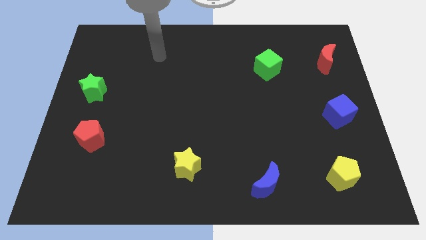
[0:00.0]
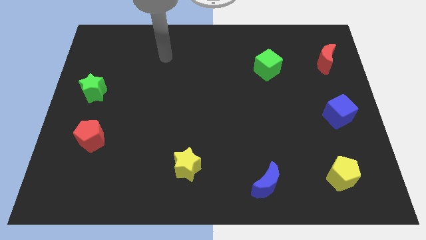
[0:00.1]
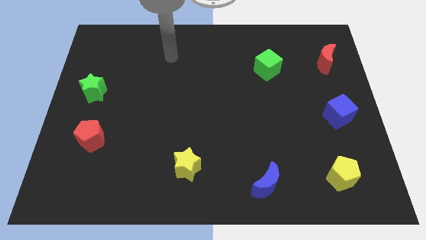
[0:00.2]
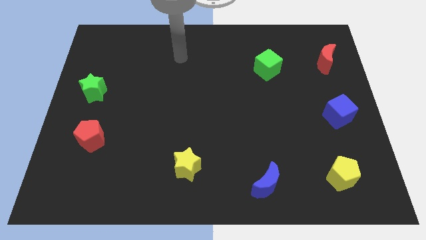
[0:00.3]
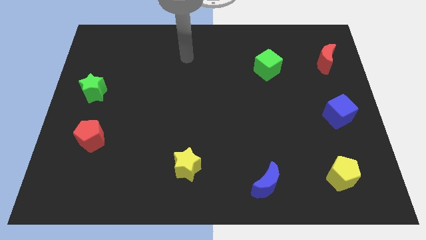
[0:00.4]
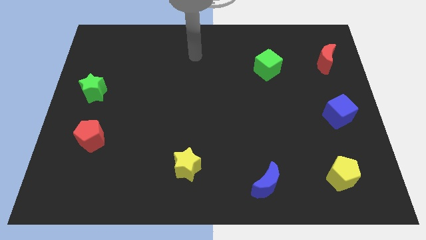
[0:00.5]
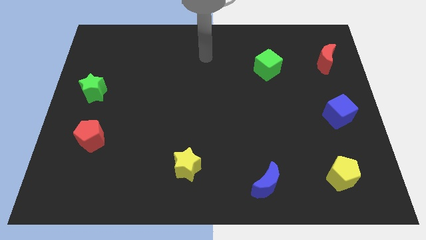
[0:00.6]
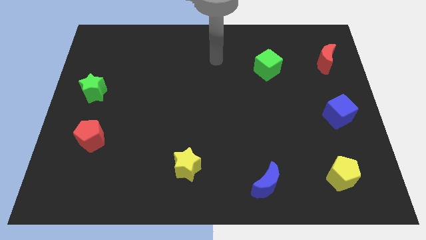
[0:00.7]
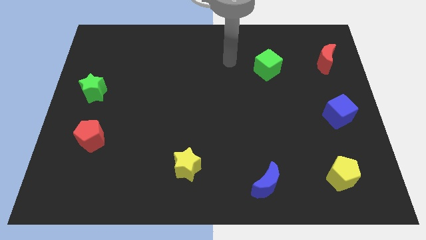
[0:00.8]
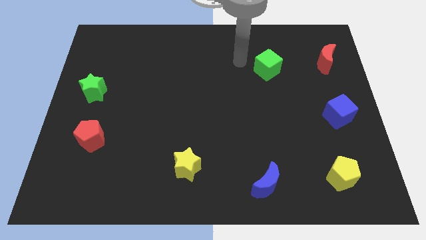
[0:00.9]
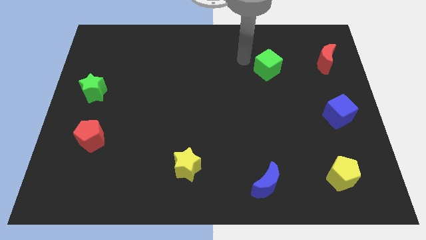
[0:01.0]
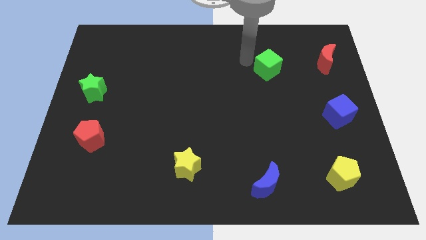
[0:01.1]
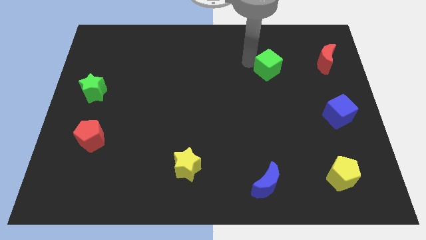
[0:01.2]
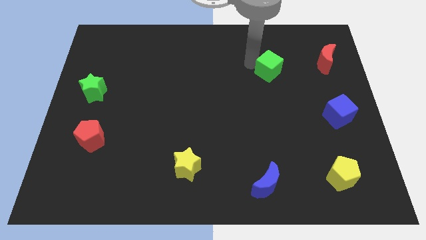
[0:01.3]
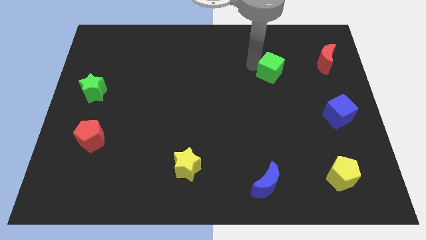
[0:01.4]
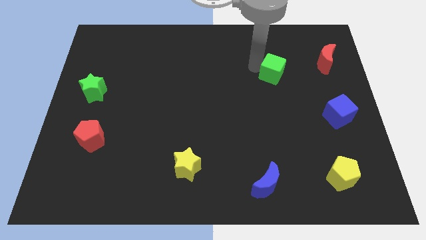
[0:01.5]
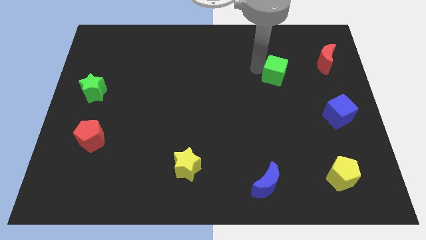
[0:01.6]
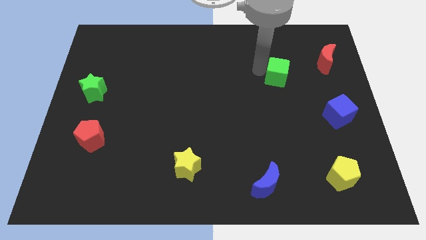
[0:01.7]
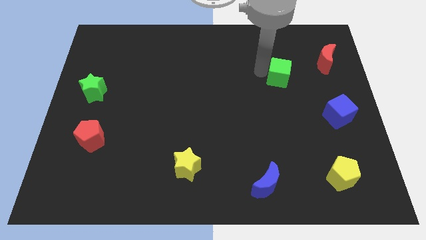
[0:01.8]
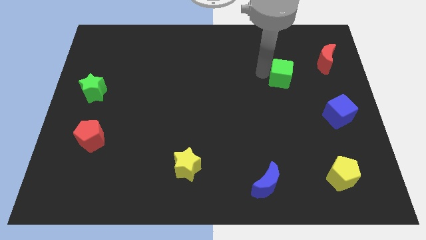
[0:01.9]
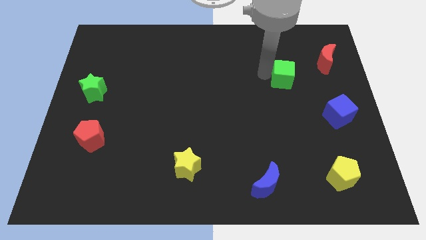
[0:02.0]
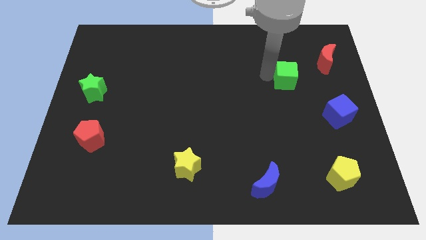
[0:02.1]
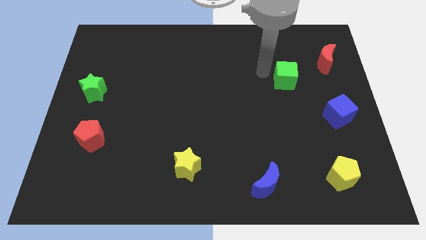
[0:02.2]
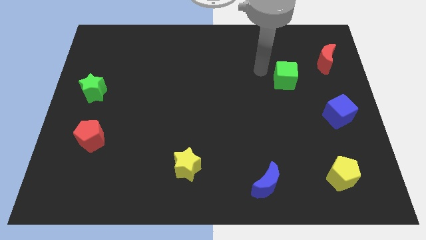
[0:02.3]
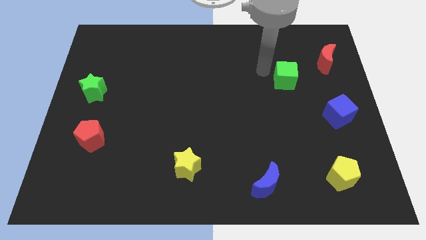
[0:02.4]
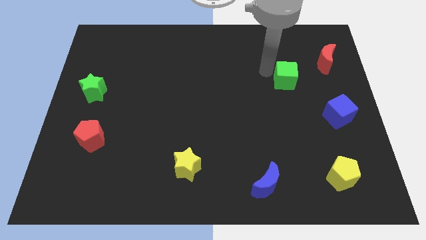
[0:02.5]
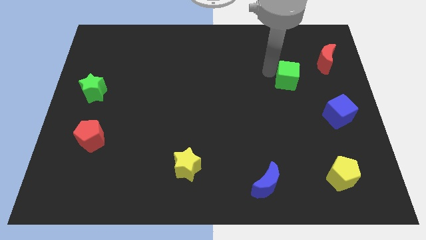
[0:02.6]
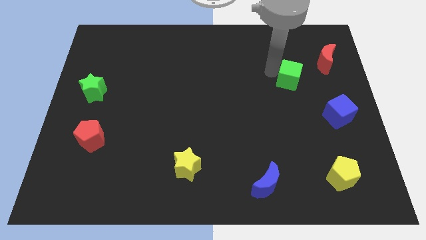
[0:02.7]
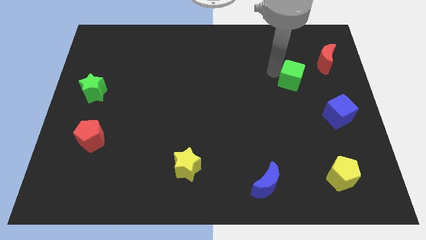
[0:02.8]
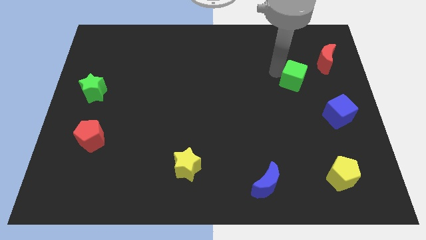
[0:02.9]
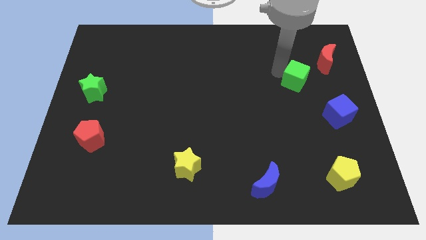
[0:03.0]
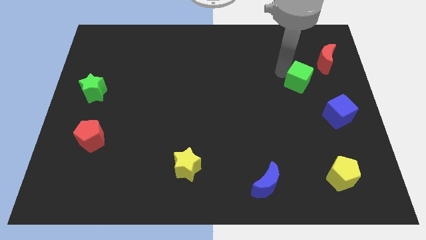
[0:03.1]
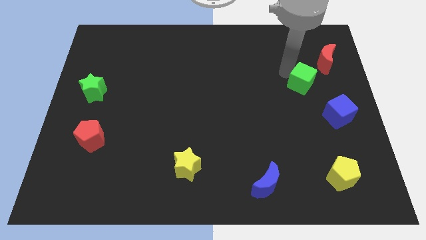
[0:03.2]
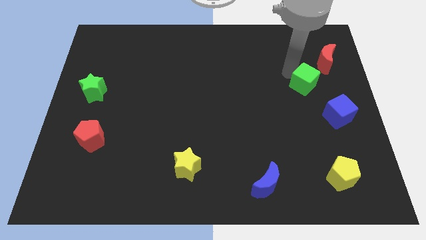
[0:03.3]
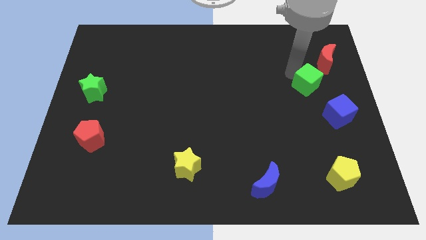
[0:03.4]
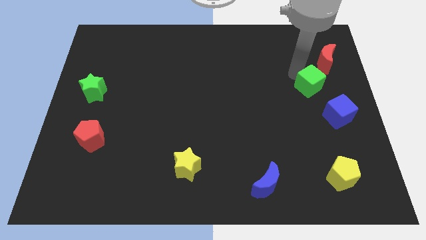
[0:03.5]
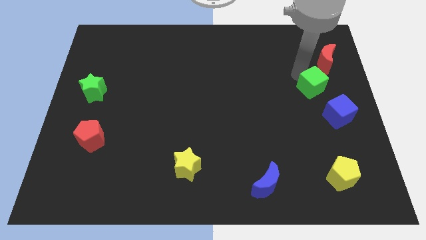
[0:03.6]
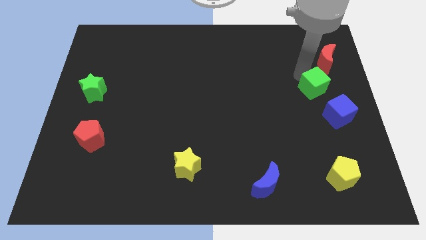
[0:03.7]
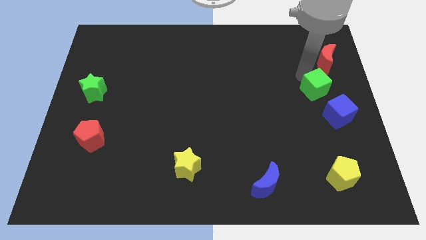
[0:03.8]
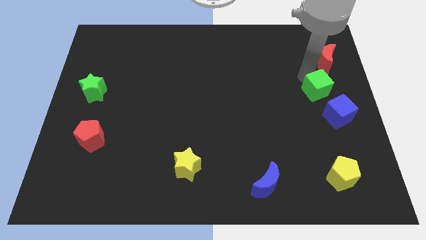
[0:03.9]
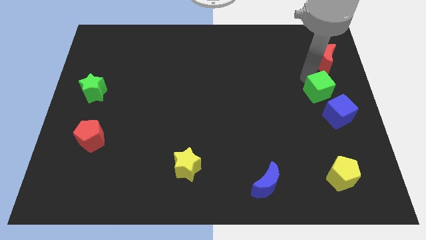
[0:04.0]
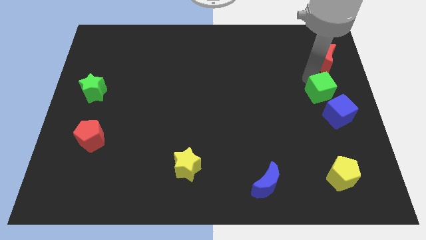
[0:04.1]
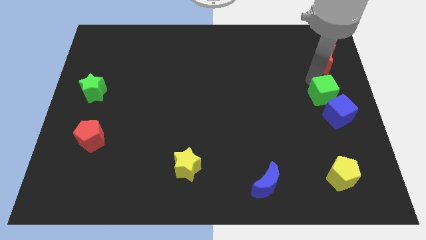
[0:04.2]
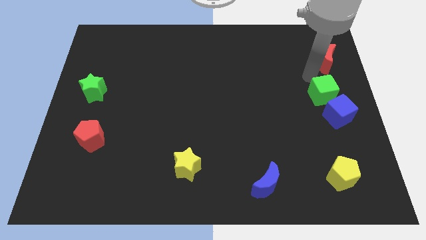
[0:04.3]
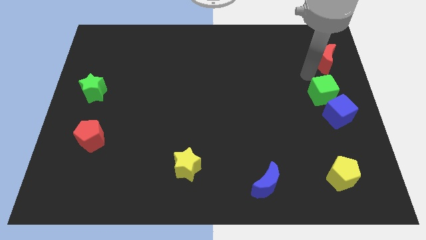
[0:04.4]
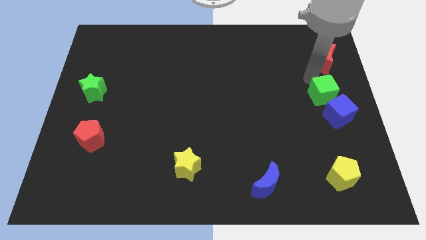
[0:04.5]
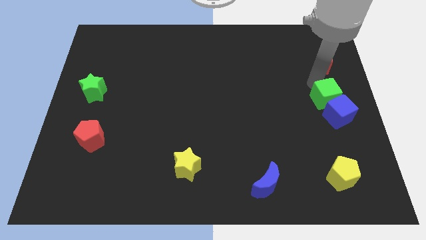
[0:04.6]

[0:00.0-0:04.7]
move the green cube to the blue cube

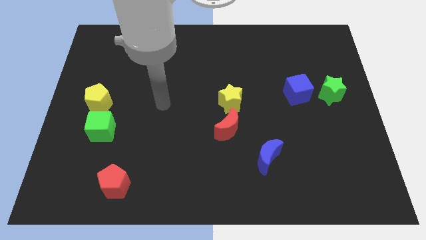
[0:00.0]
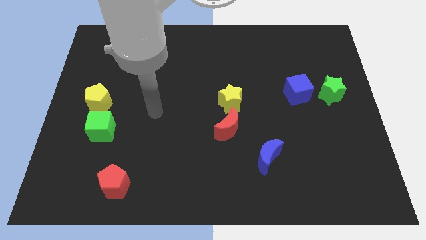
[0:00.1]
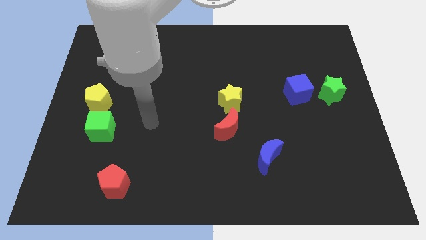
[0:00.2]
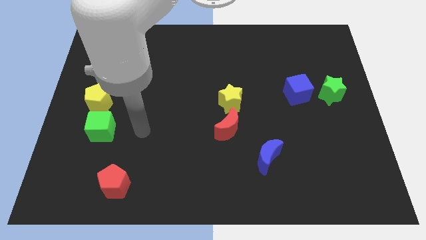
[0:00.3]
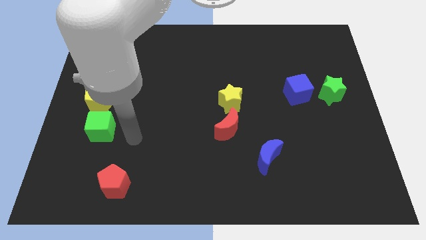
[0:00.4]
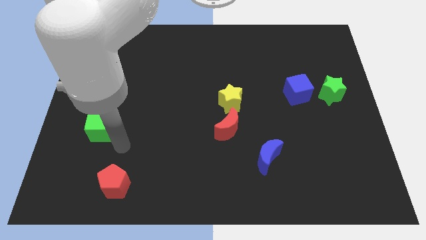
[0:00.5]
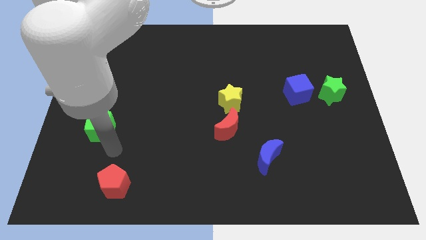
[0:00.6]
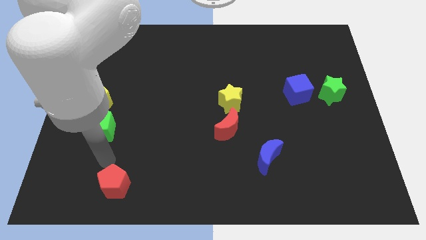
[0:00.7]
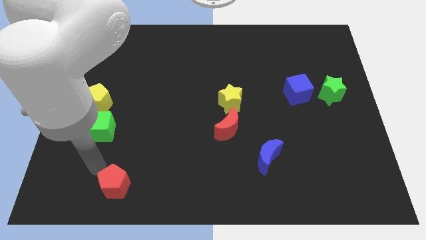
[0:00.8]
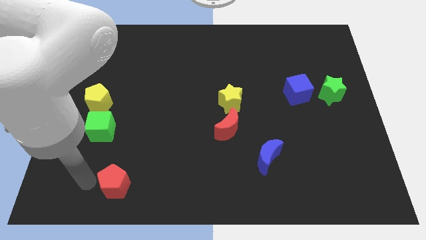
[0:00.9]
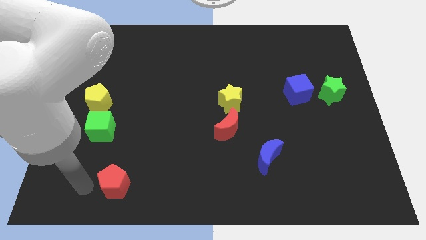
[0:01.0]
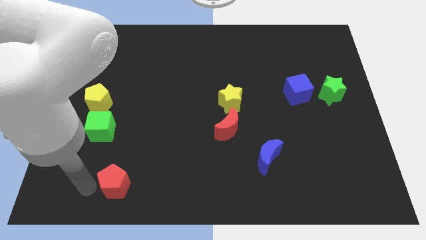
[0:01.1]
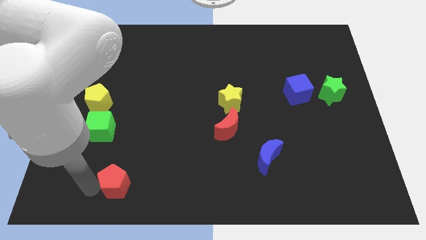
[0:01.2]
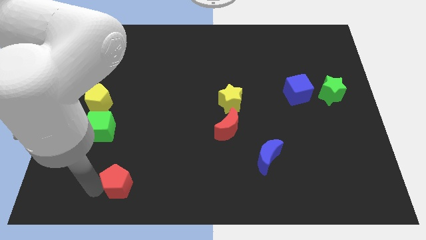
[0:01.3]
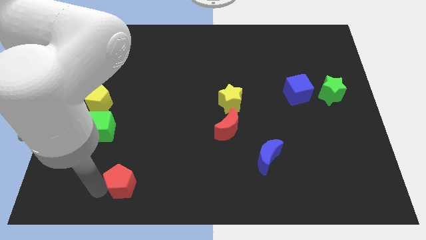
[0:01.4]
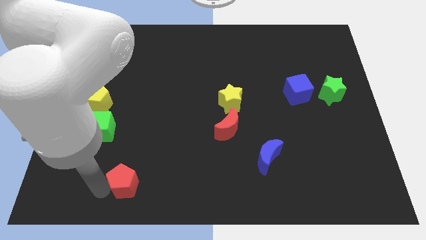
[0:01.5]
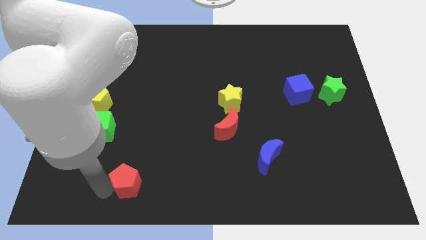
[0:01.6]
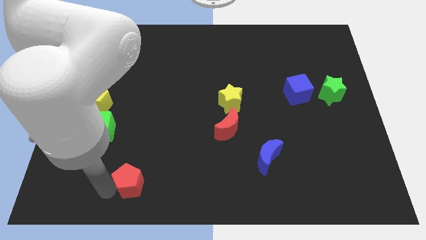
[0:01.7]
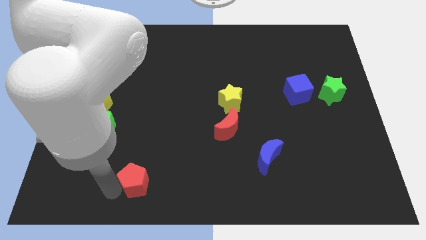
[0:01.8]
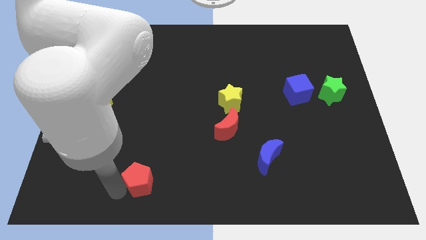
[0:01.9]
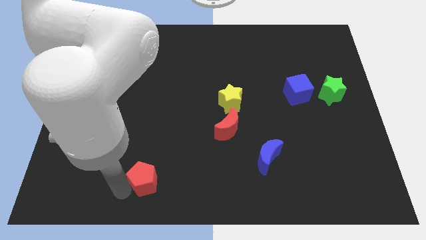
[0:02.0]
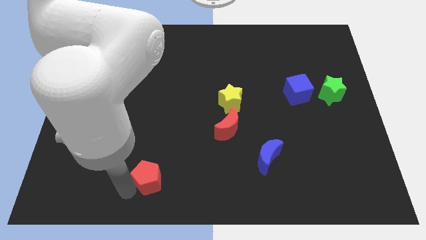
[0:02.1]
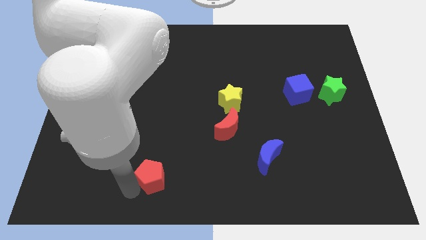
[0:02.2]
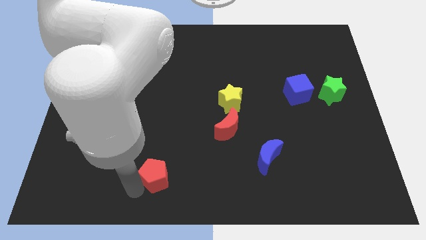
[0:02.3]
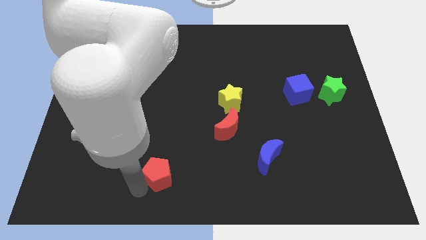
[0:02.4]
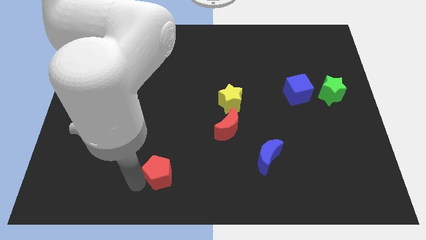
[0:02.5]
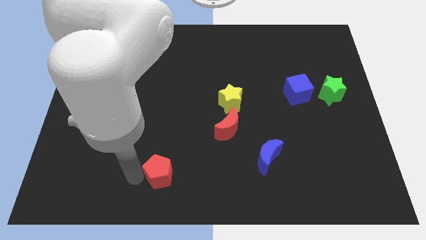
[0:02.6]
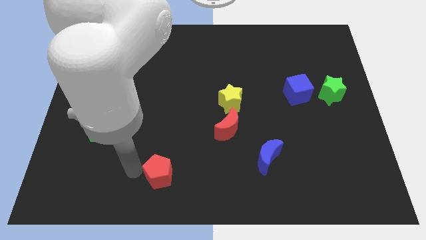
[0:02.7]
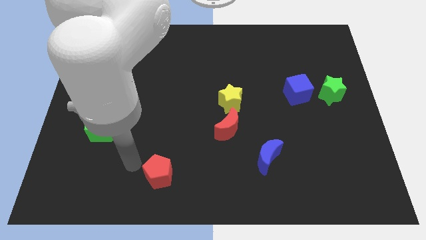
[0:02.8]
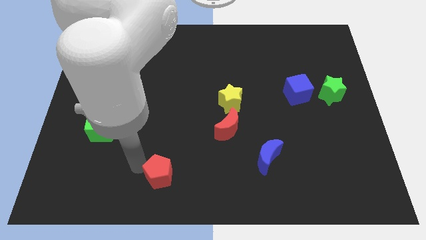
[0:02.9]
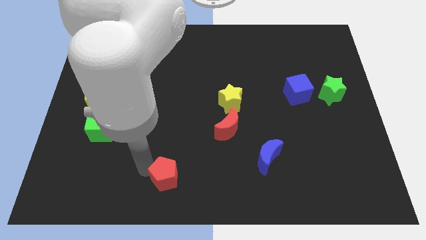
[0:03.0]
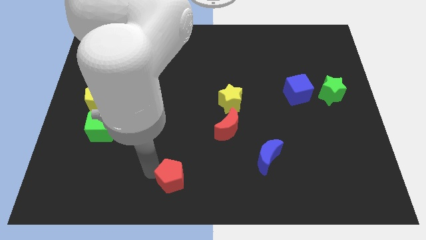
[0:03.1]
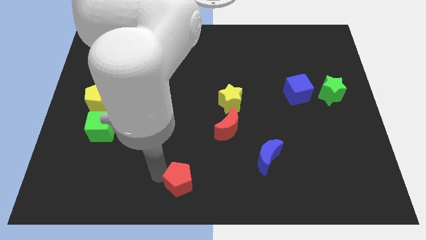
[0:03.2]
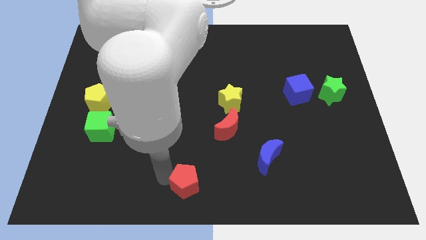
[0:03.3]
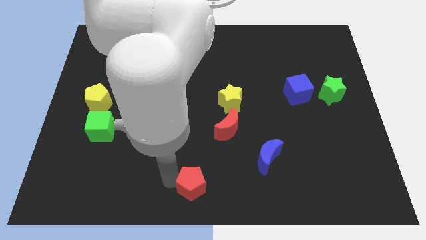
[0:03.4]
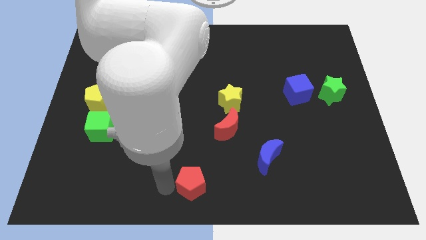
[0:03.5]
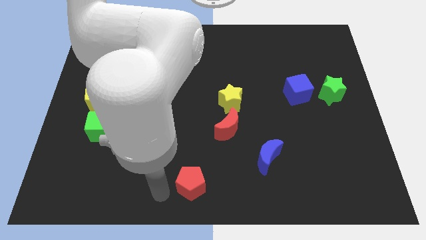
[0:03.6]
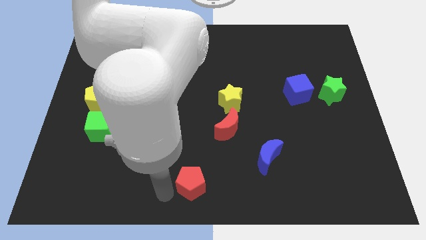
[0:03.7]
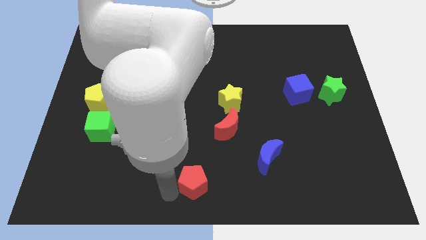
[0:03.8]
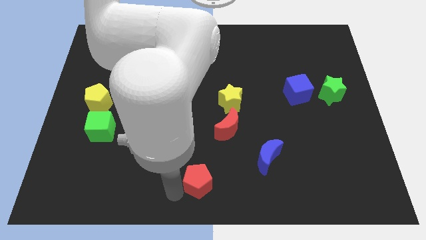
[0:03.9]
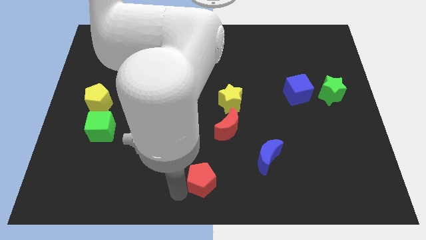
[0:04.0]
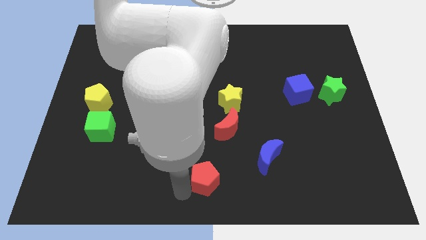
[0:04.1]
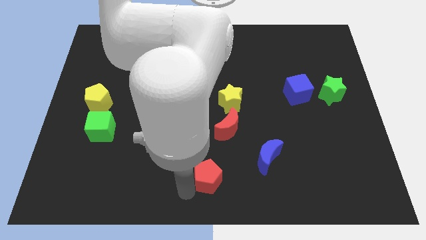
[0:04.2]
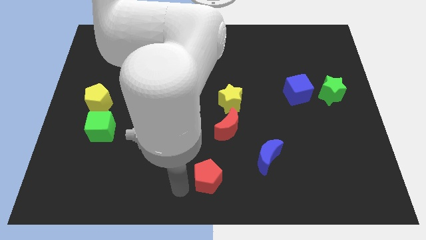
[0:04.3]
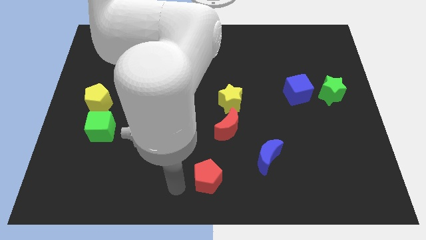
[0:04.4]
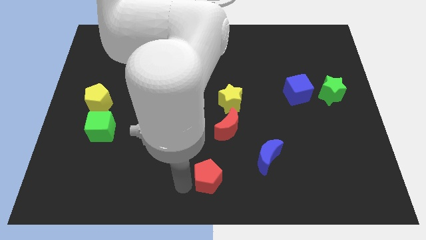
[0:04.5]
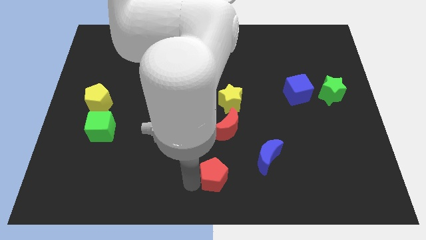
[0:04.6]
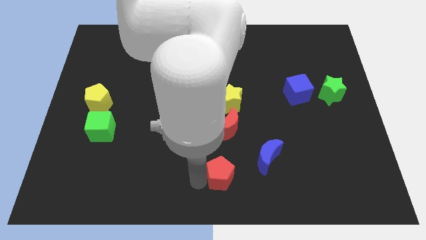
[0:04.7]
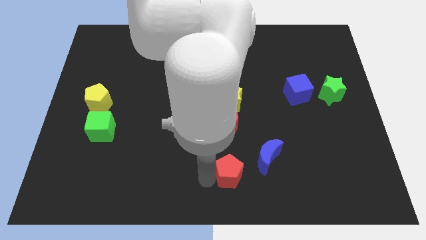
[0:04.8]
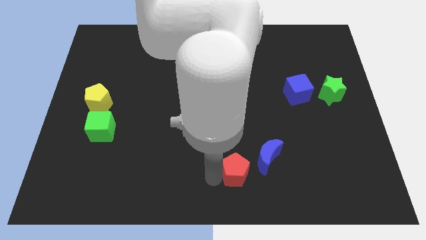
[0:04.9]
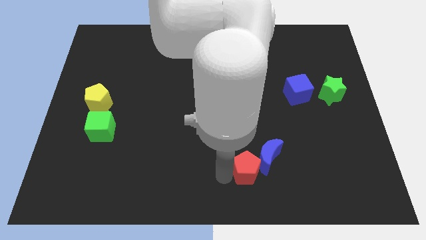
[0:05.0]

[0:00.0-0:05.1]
push the red pentagon to the blue moon
